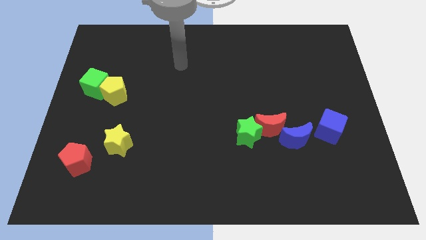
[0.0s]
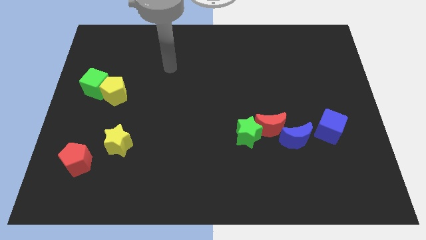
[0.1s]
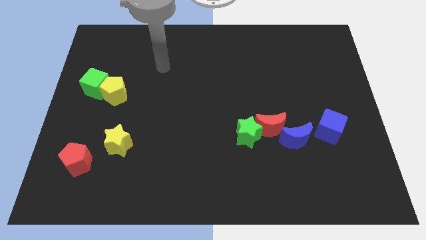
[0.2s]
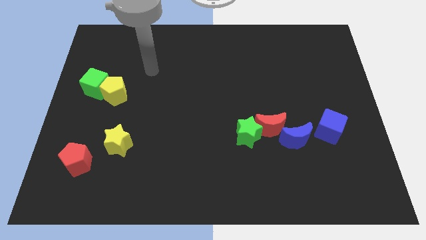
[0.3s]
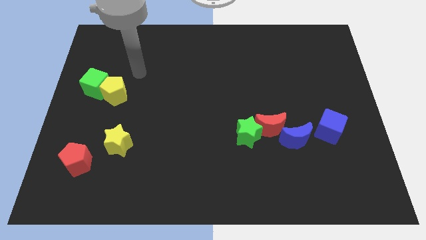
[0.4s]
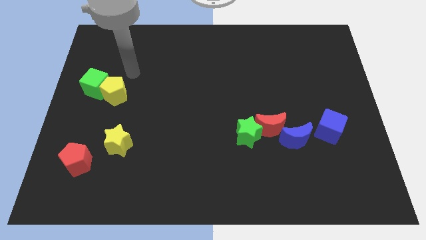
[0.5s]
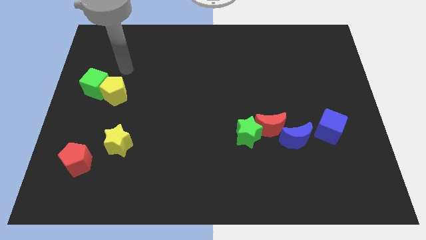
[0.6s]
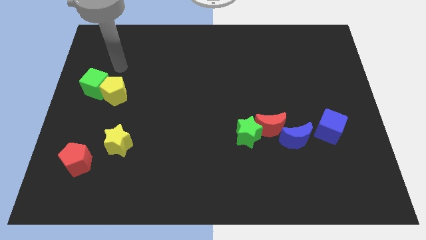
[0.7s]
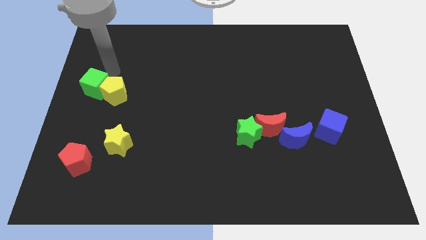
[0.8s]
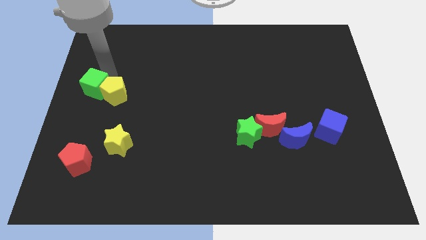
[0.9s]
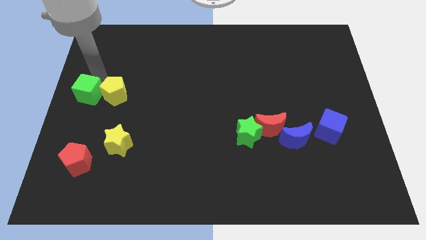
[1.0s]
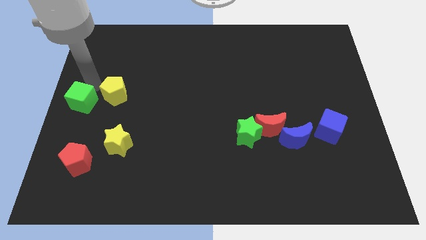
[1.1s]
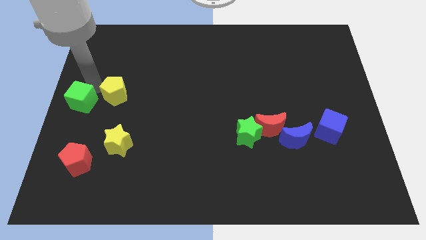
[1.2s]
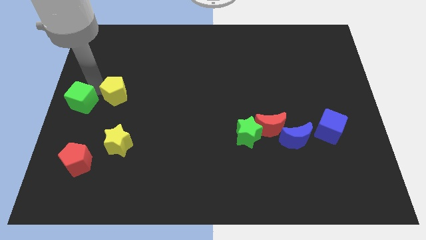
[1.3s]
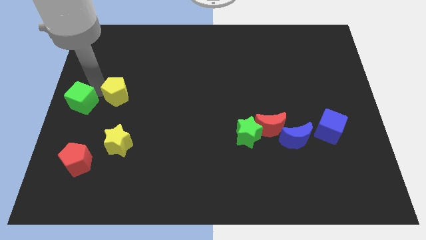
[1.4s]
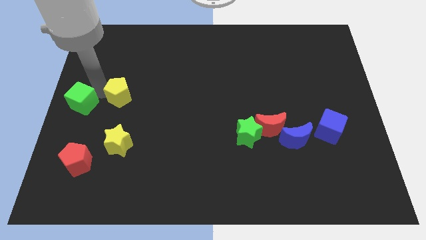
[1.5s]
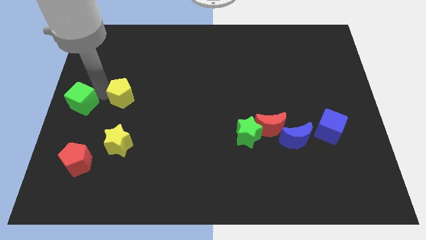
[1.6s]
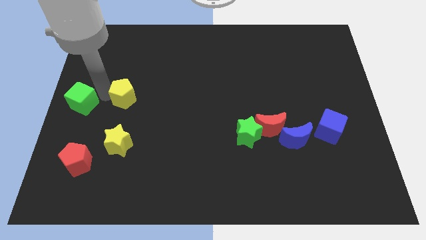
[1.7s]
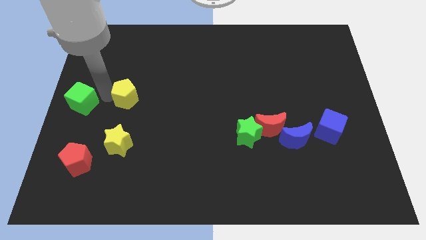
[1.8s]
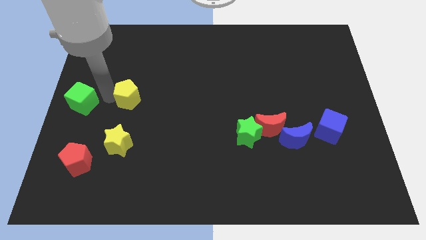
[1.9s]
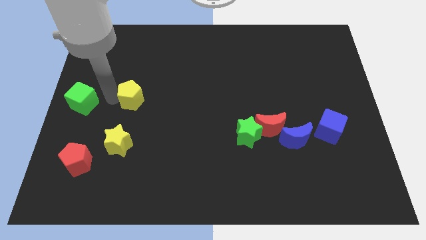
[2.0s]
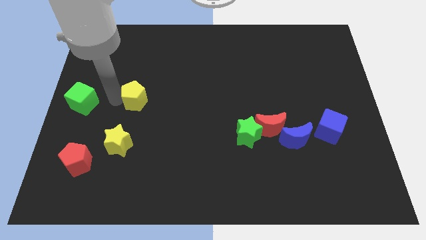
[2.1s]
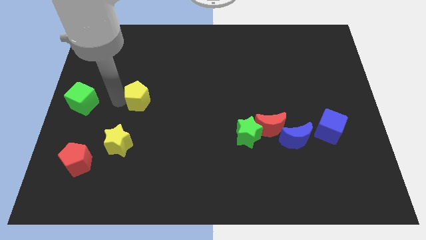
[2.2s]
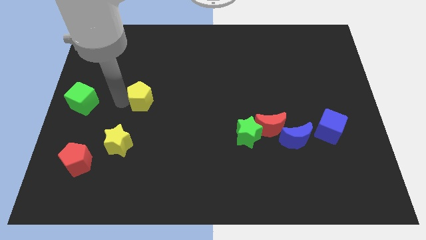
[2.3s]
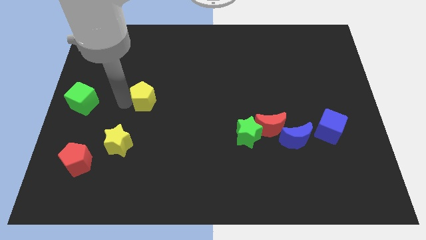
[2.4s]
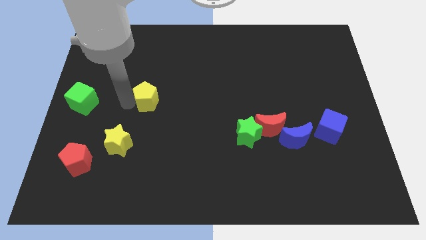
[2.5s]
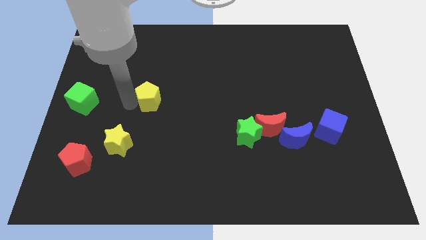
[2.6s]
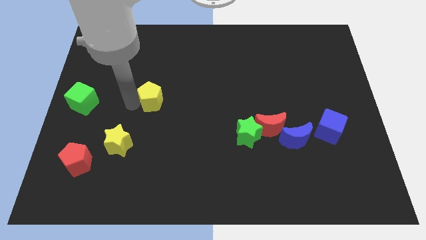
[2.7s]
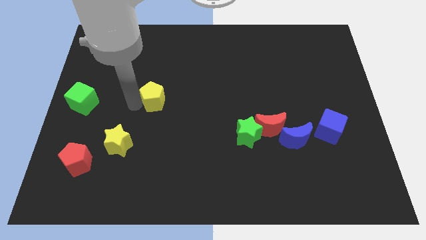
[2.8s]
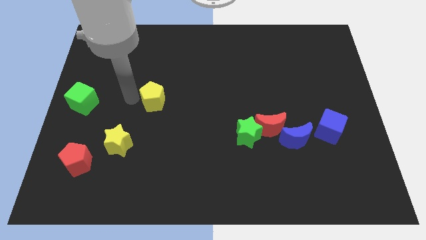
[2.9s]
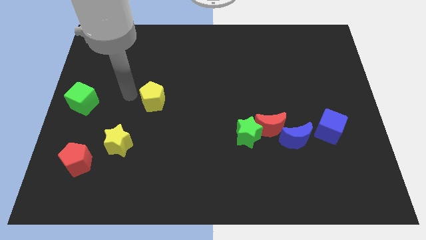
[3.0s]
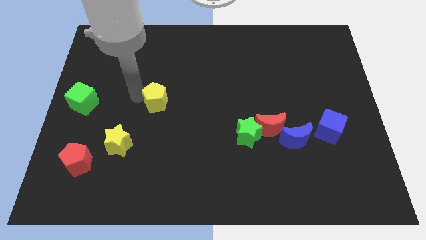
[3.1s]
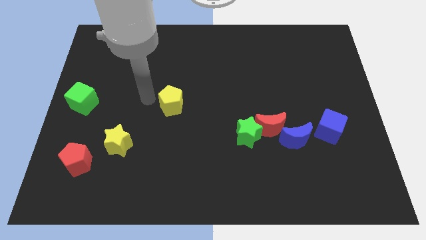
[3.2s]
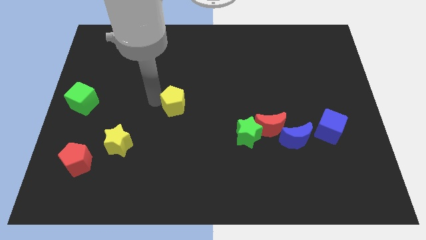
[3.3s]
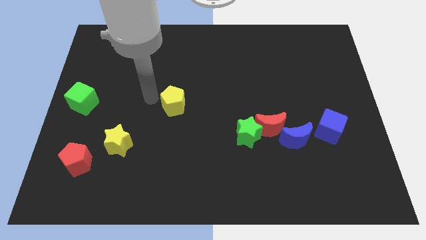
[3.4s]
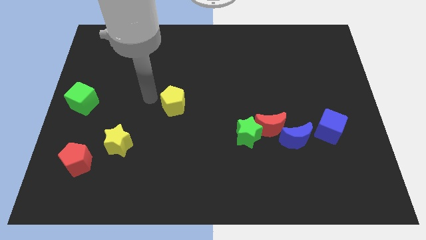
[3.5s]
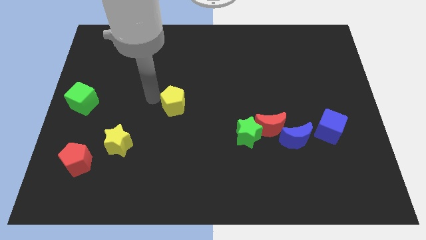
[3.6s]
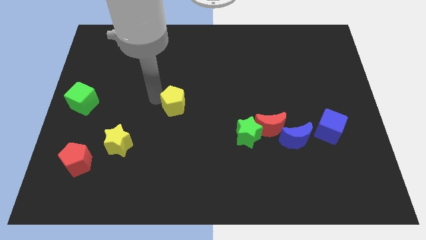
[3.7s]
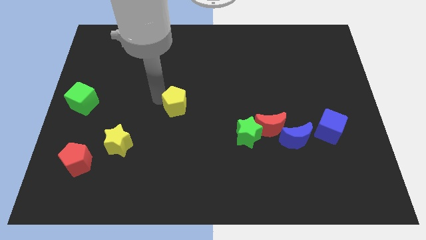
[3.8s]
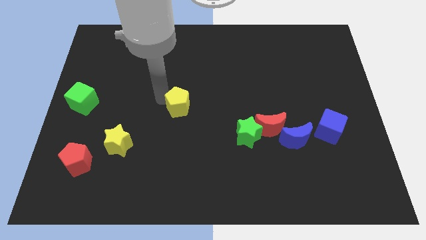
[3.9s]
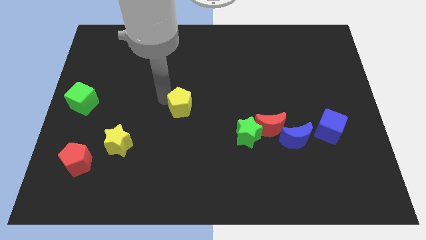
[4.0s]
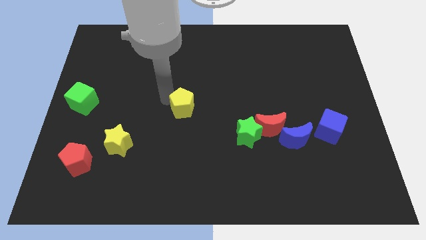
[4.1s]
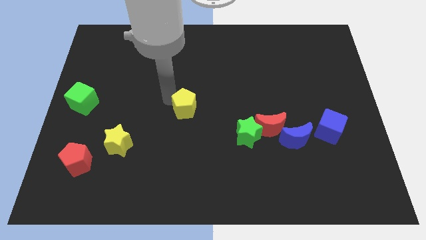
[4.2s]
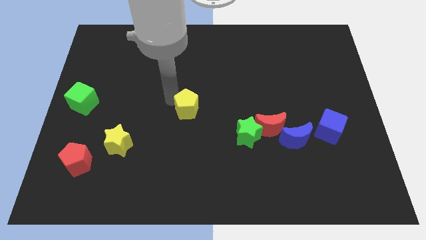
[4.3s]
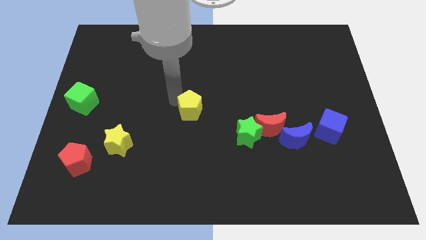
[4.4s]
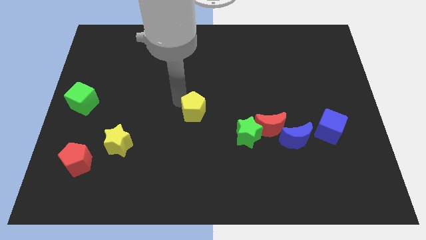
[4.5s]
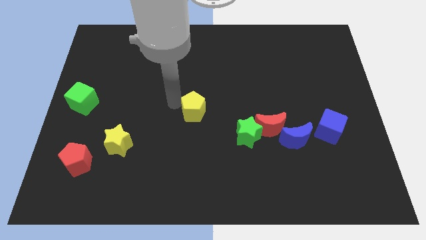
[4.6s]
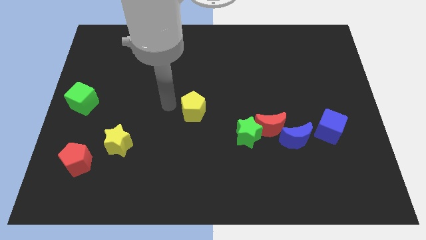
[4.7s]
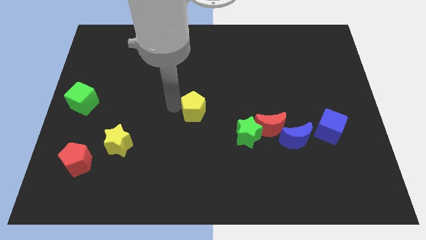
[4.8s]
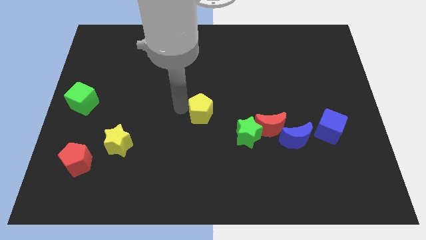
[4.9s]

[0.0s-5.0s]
move the yellow pentagon to the top left of the green star

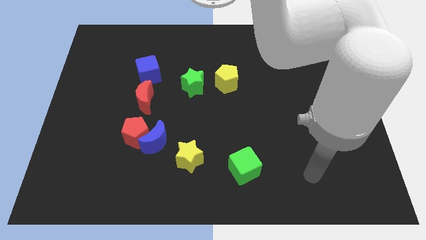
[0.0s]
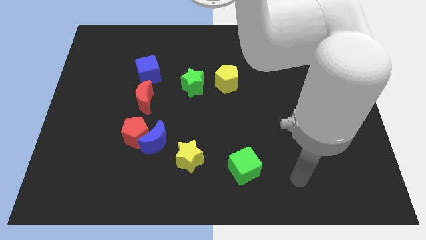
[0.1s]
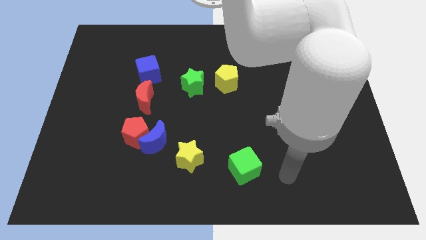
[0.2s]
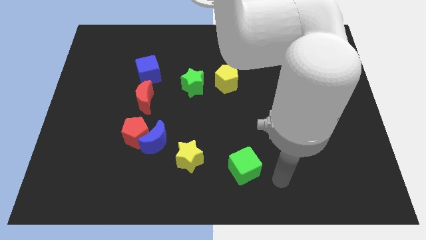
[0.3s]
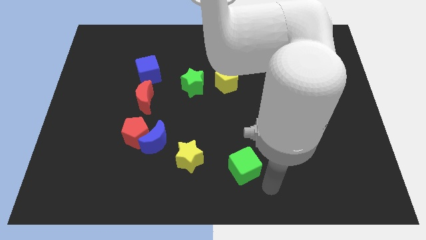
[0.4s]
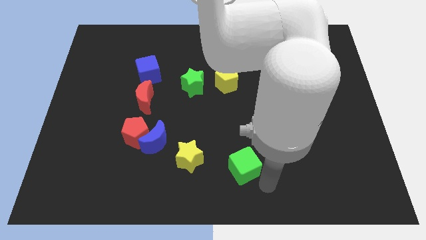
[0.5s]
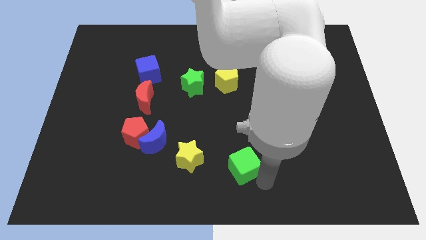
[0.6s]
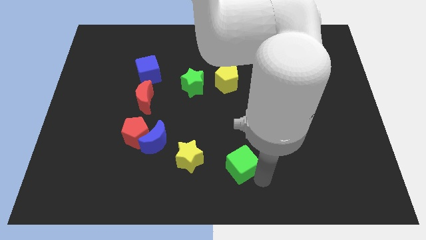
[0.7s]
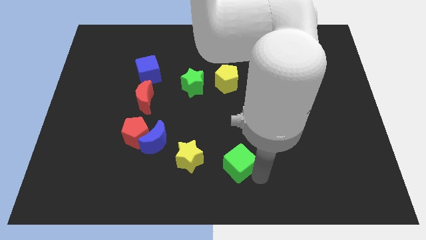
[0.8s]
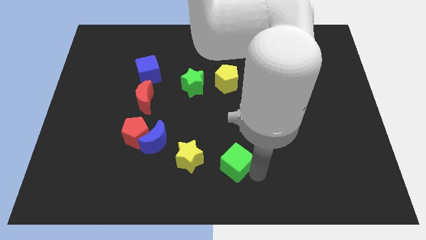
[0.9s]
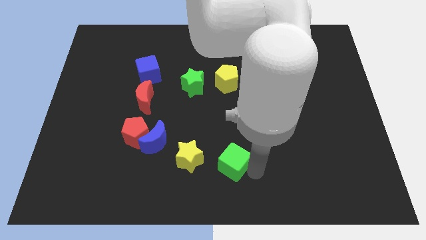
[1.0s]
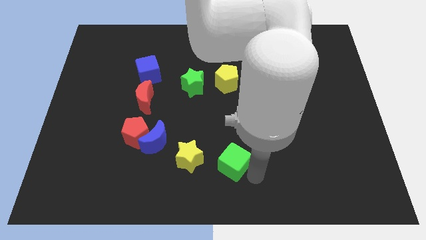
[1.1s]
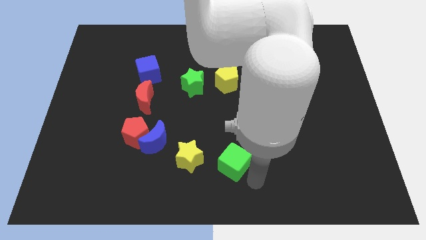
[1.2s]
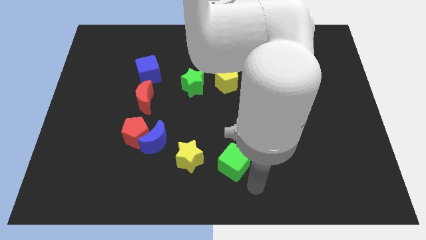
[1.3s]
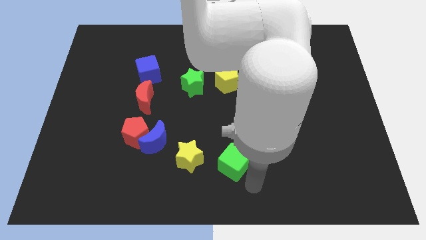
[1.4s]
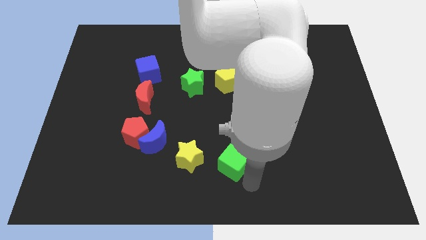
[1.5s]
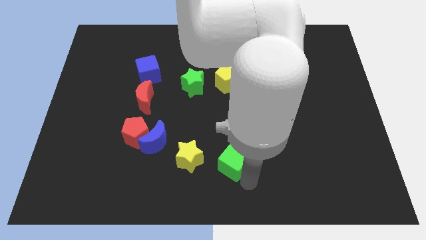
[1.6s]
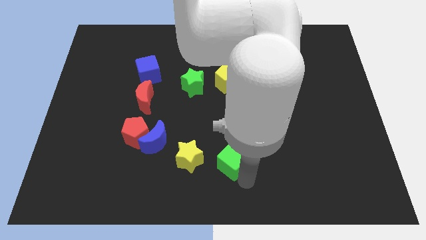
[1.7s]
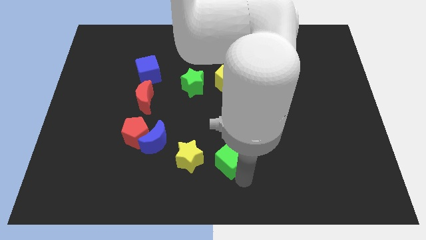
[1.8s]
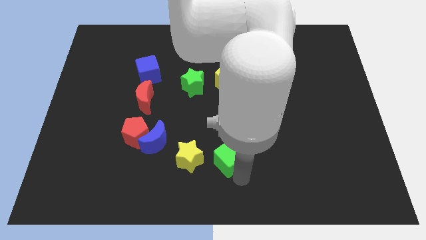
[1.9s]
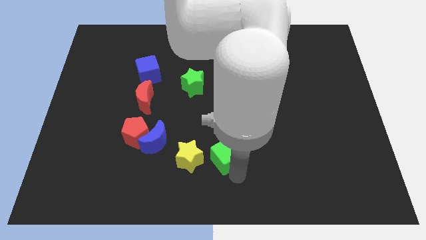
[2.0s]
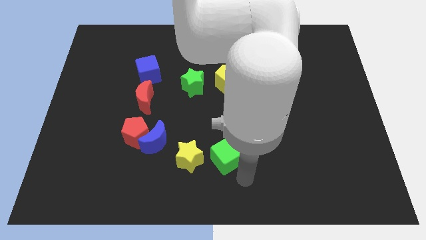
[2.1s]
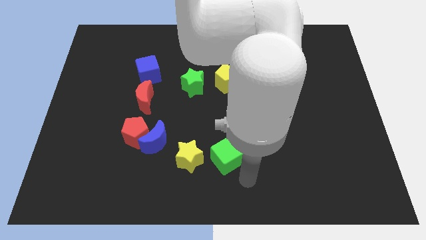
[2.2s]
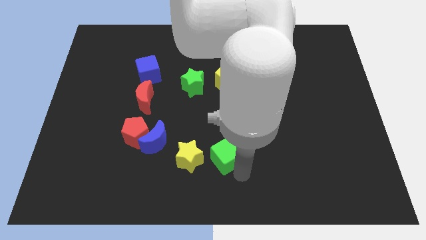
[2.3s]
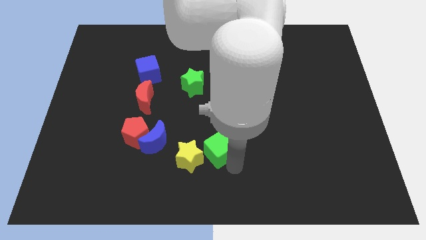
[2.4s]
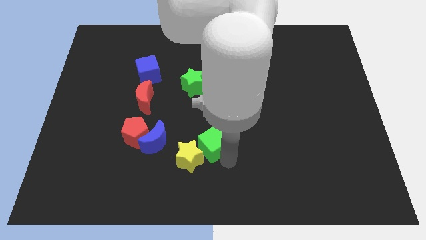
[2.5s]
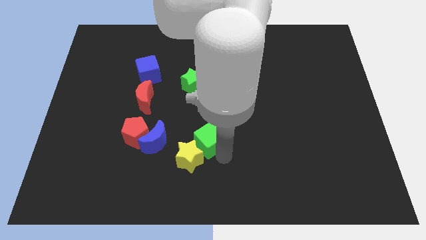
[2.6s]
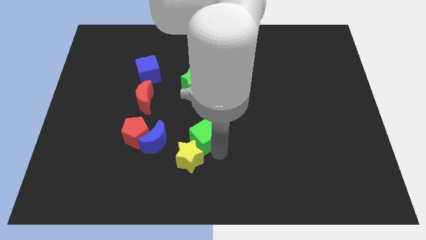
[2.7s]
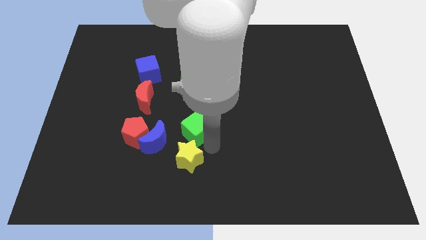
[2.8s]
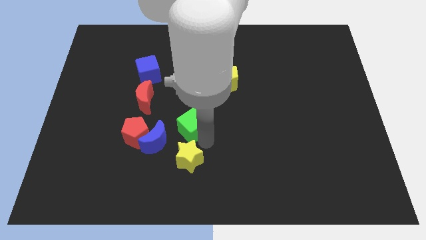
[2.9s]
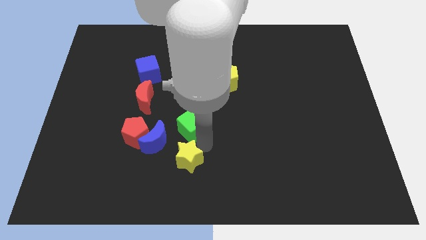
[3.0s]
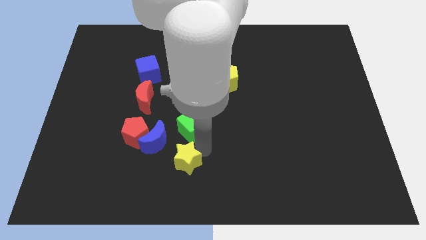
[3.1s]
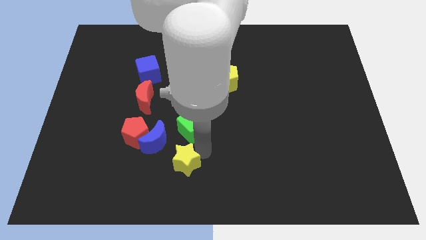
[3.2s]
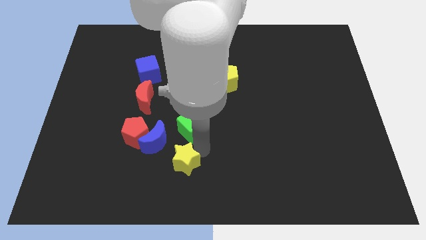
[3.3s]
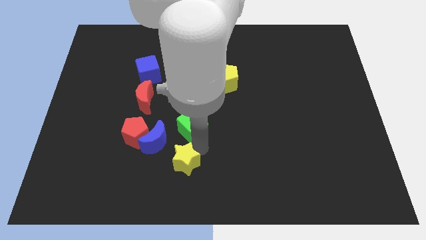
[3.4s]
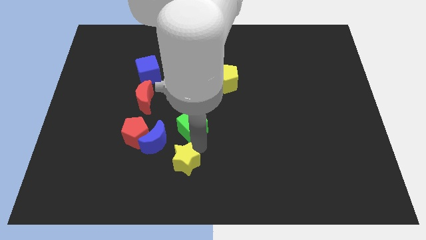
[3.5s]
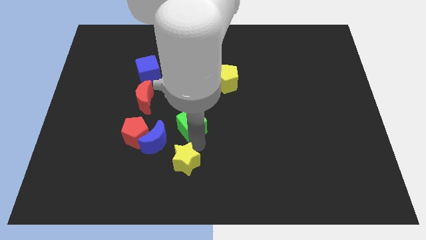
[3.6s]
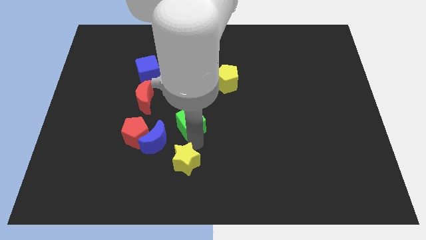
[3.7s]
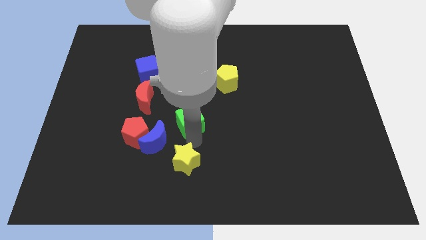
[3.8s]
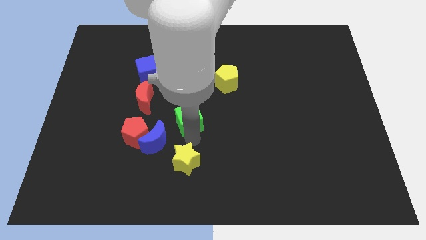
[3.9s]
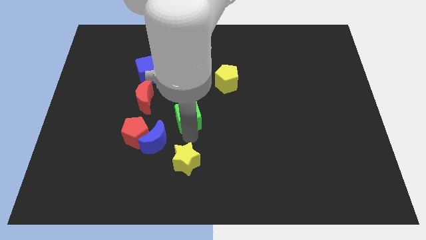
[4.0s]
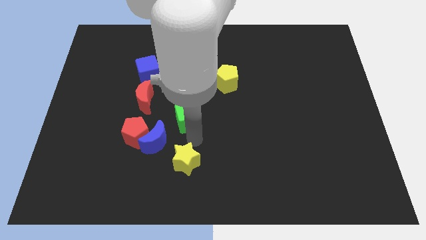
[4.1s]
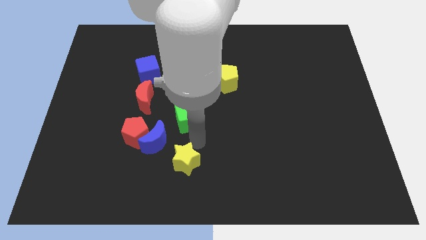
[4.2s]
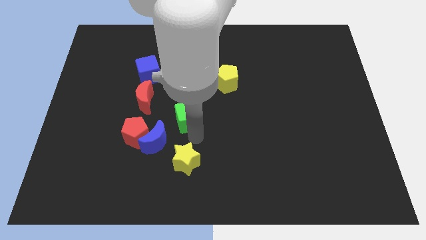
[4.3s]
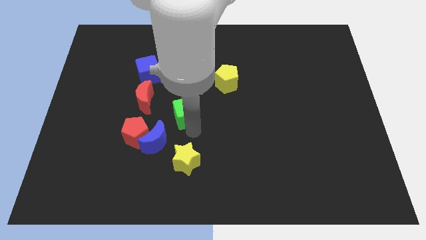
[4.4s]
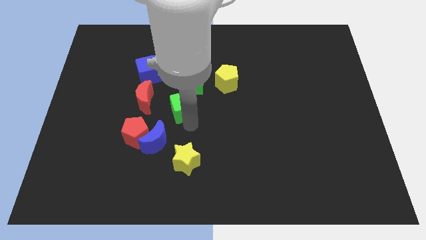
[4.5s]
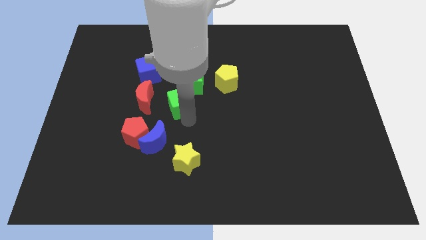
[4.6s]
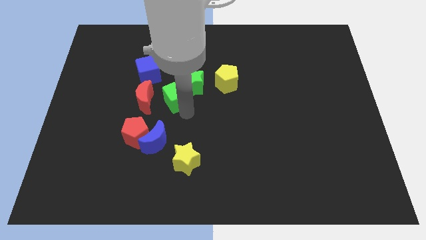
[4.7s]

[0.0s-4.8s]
put the green cube to the left of the green star
